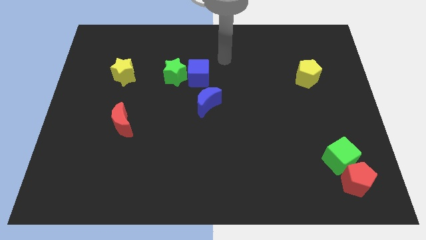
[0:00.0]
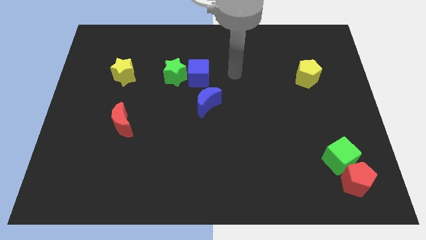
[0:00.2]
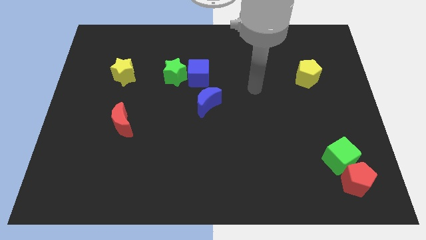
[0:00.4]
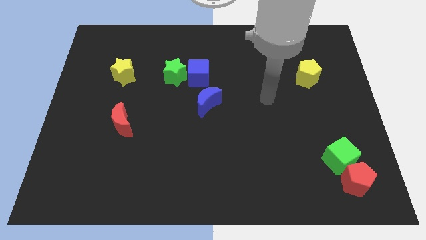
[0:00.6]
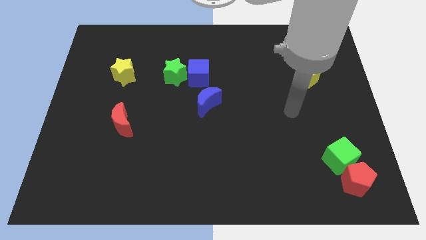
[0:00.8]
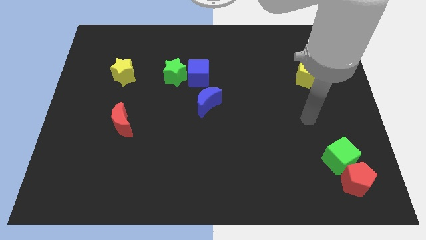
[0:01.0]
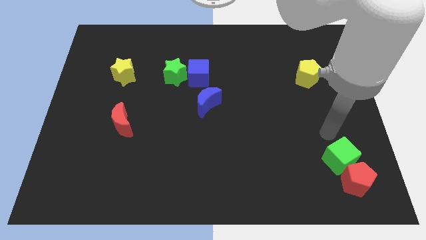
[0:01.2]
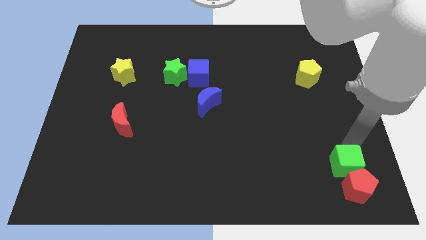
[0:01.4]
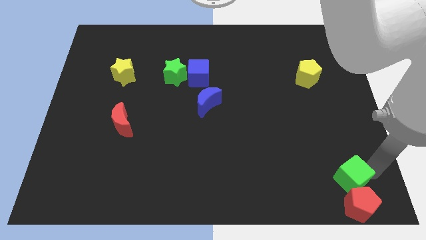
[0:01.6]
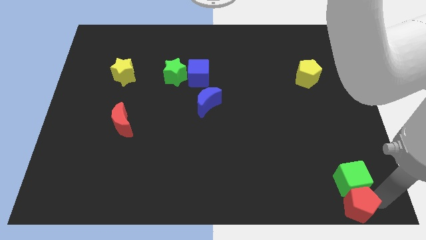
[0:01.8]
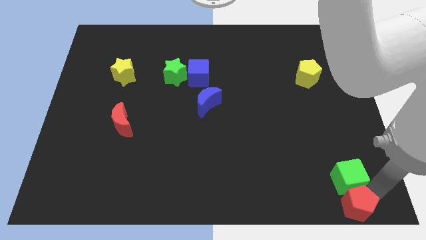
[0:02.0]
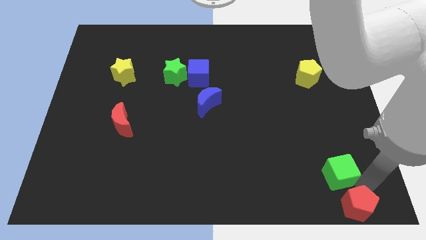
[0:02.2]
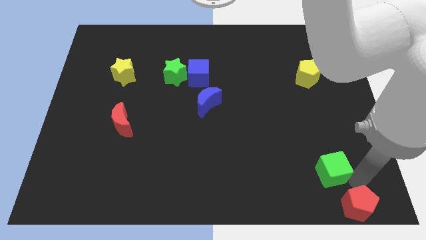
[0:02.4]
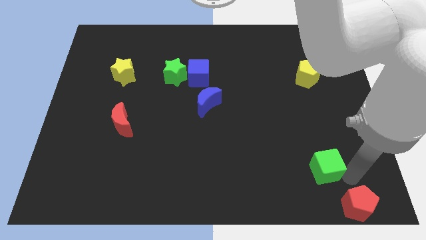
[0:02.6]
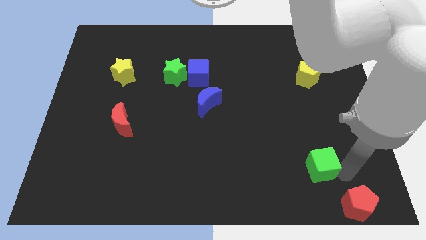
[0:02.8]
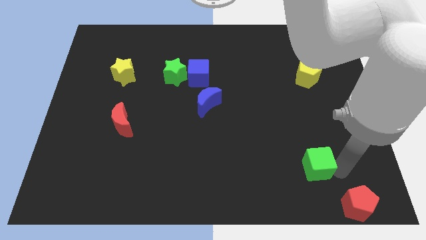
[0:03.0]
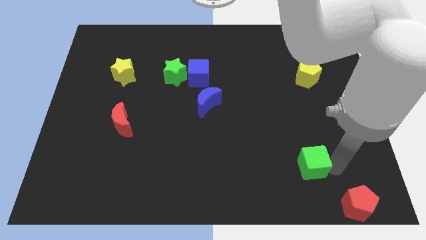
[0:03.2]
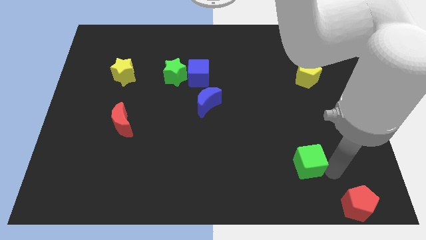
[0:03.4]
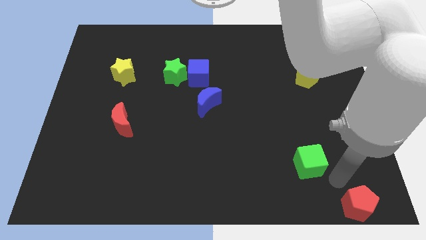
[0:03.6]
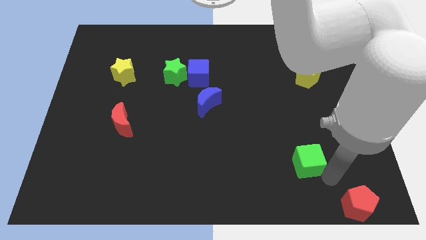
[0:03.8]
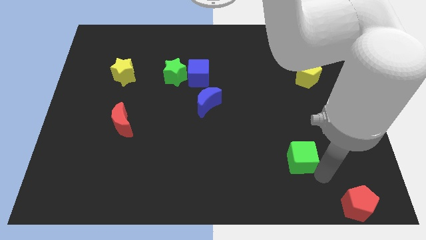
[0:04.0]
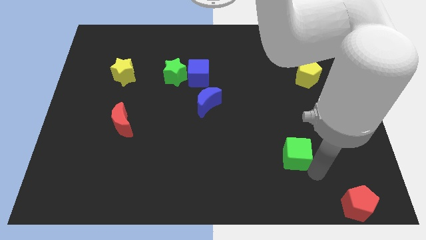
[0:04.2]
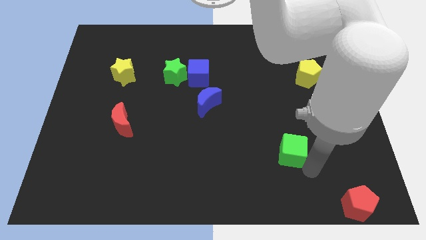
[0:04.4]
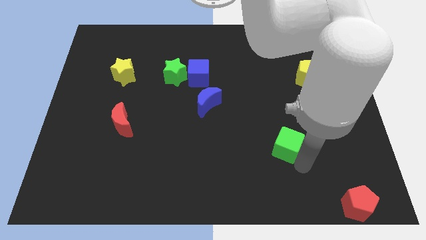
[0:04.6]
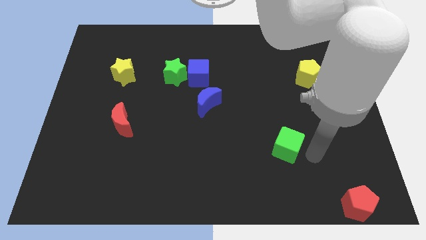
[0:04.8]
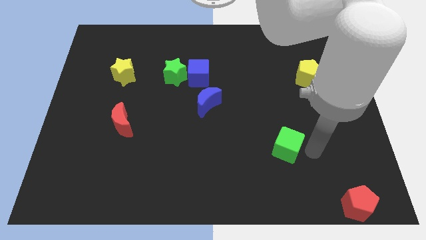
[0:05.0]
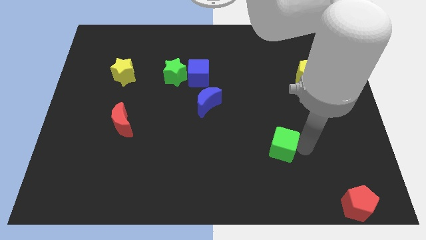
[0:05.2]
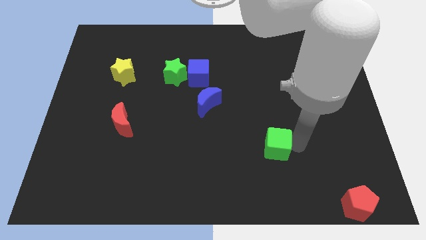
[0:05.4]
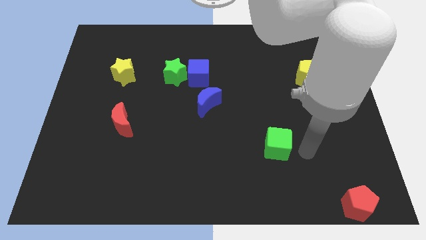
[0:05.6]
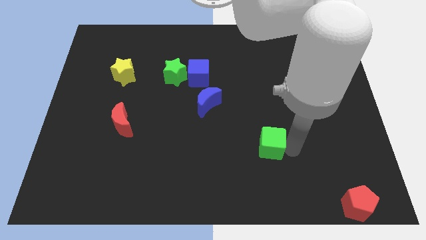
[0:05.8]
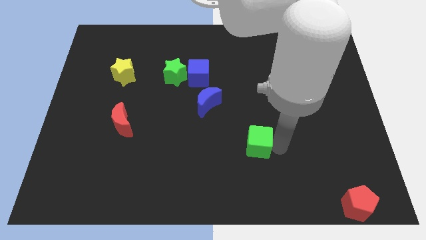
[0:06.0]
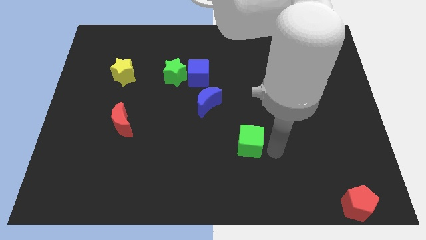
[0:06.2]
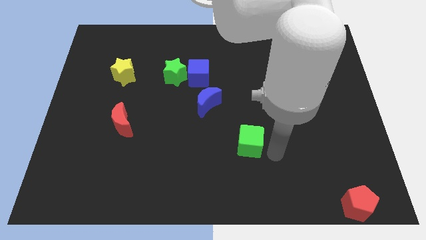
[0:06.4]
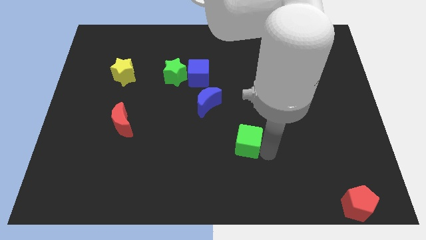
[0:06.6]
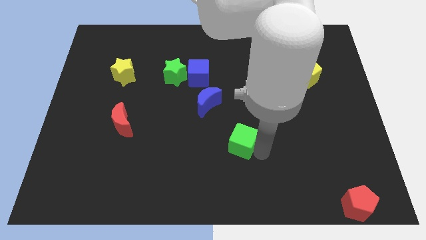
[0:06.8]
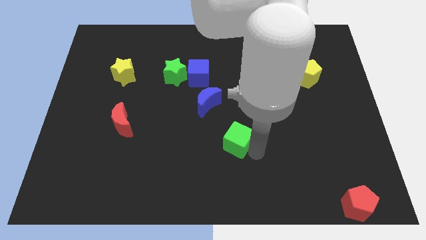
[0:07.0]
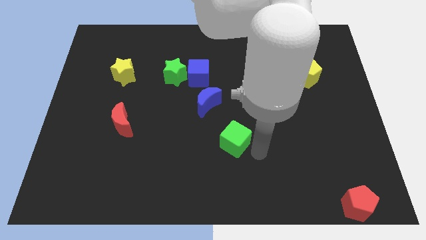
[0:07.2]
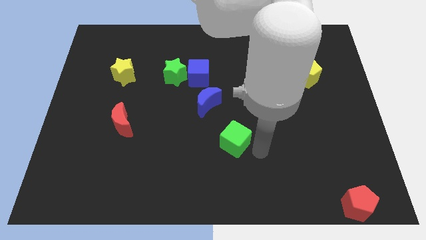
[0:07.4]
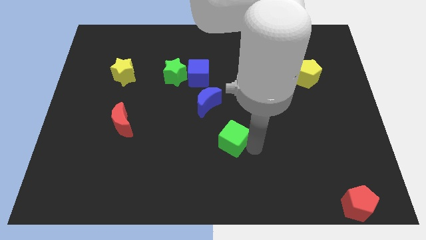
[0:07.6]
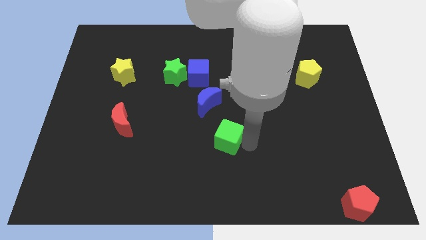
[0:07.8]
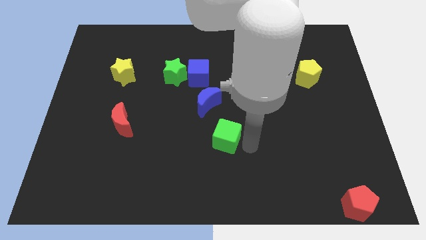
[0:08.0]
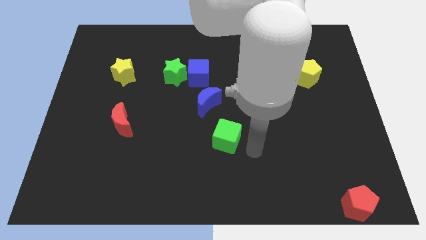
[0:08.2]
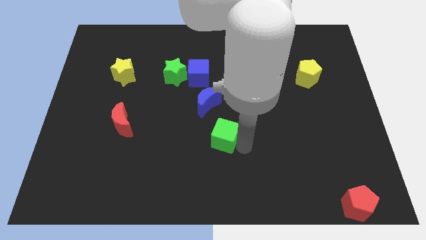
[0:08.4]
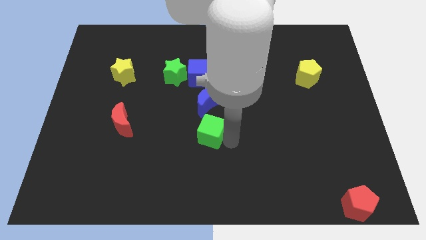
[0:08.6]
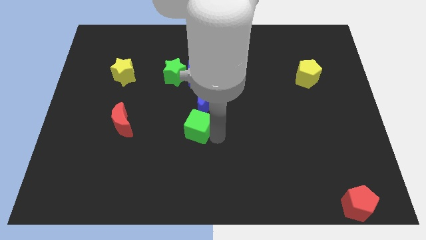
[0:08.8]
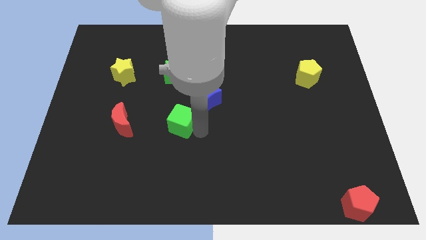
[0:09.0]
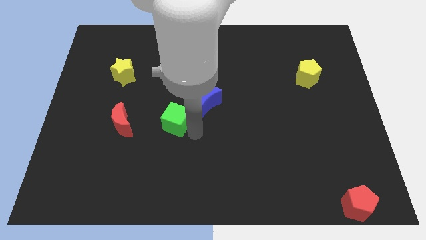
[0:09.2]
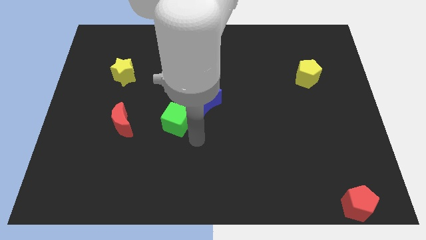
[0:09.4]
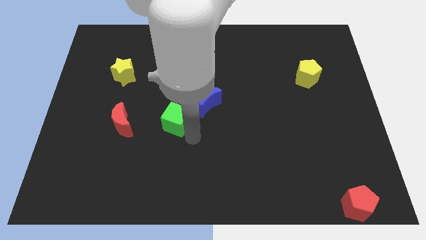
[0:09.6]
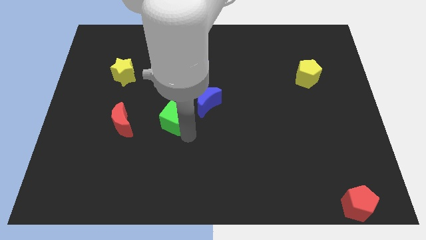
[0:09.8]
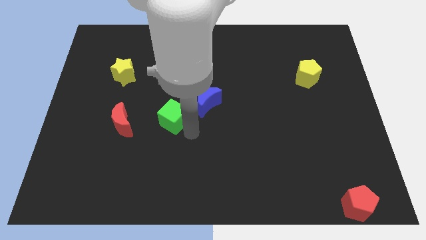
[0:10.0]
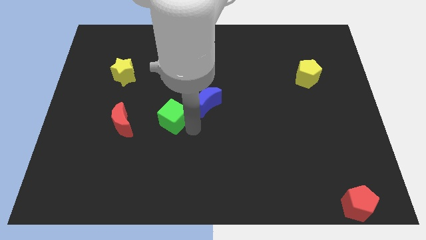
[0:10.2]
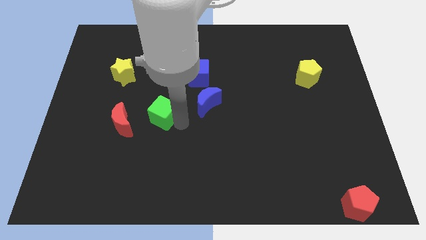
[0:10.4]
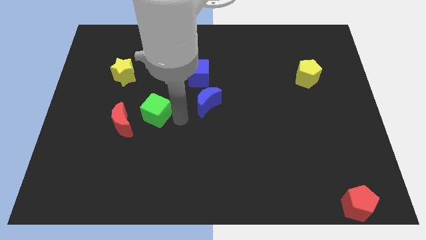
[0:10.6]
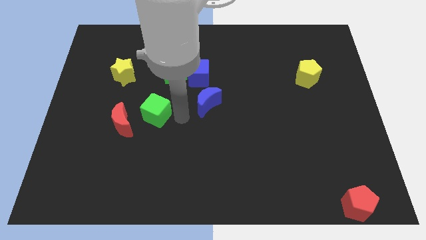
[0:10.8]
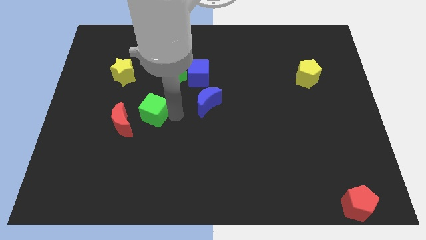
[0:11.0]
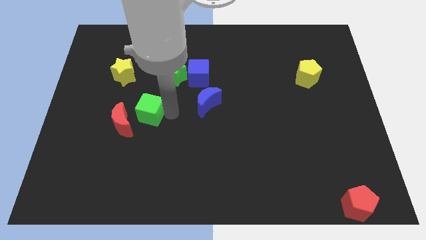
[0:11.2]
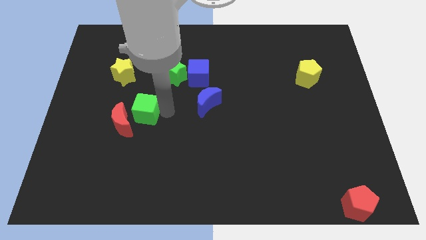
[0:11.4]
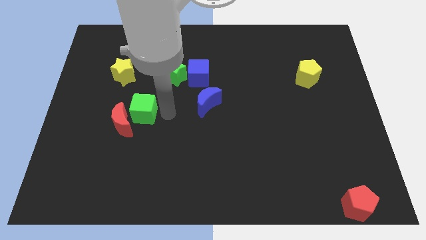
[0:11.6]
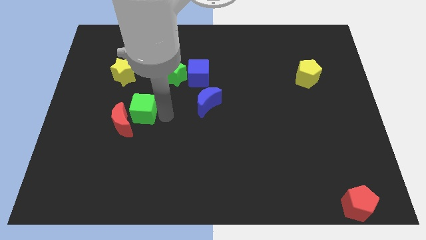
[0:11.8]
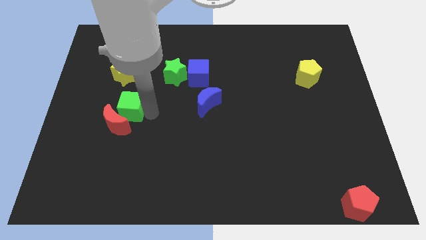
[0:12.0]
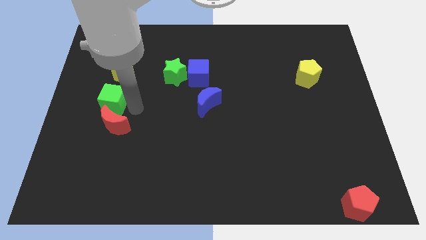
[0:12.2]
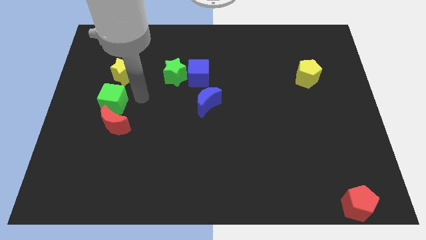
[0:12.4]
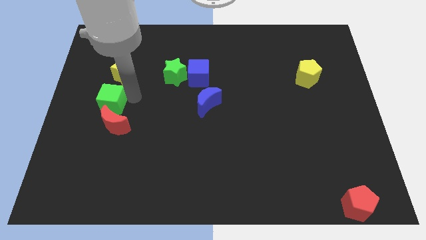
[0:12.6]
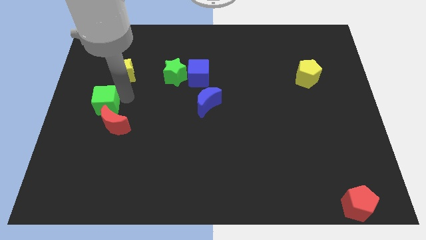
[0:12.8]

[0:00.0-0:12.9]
move the green cube to the left side of the board
